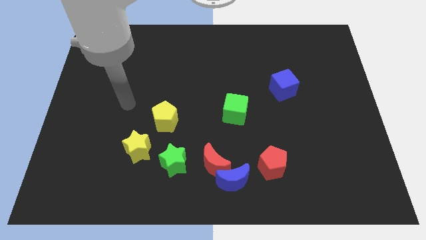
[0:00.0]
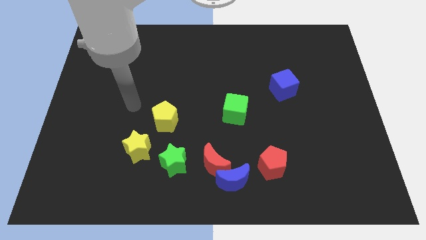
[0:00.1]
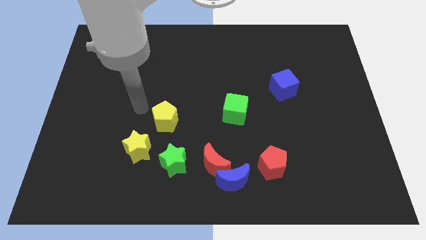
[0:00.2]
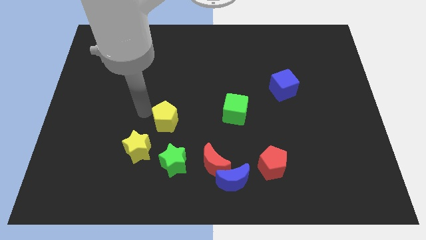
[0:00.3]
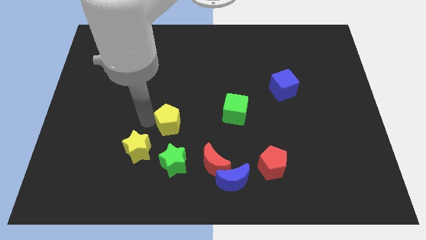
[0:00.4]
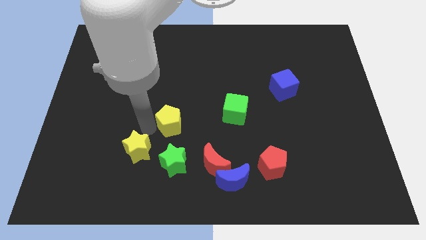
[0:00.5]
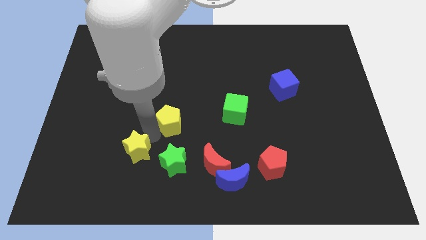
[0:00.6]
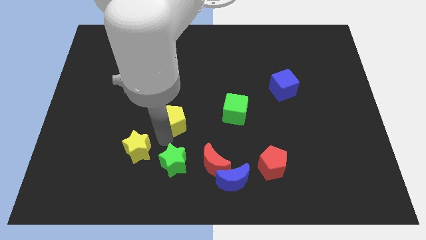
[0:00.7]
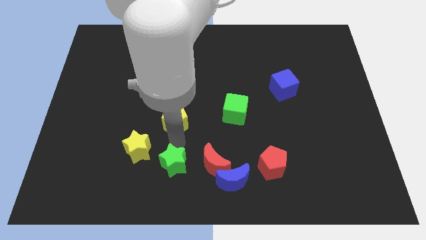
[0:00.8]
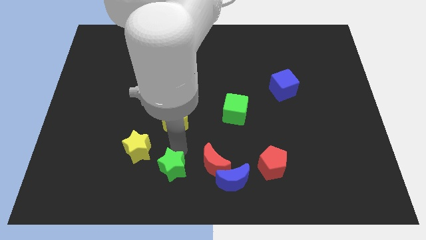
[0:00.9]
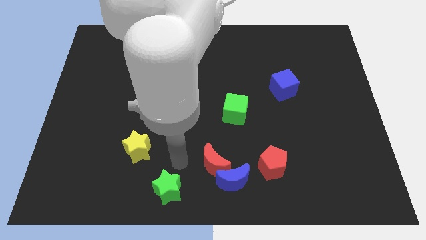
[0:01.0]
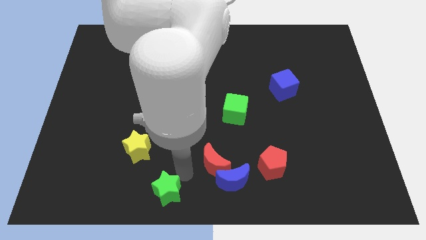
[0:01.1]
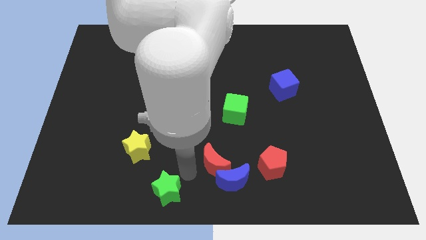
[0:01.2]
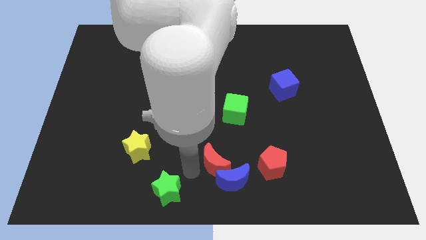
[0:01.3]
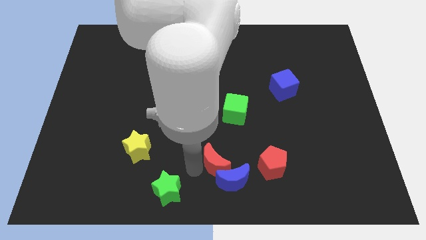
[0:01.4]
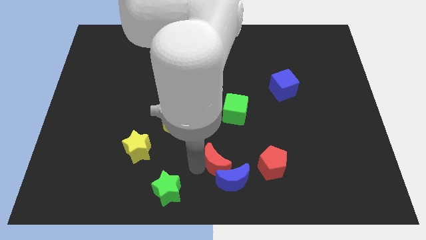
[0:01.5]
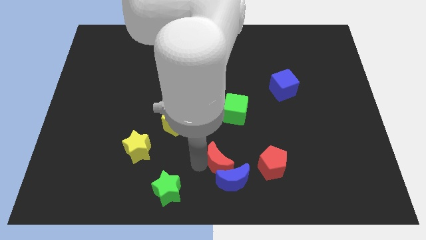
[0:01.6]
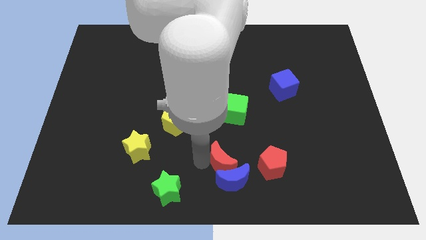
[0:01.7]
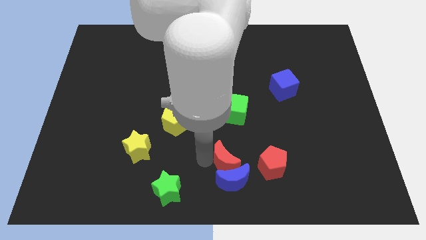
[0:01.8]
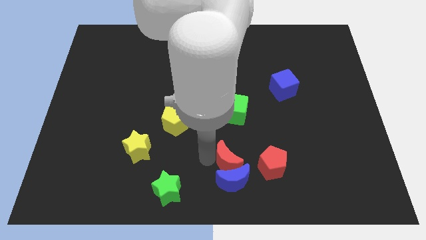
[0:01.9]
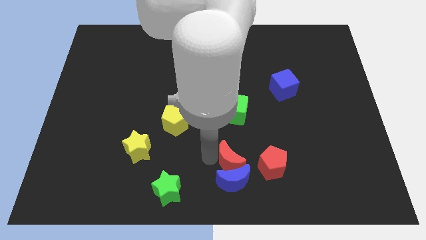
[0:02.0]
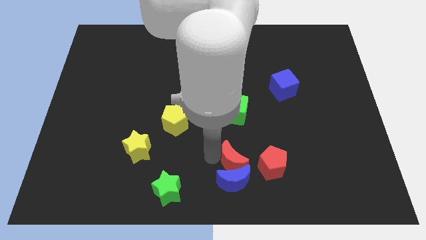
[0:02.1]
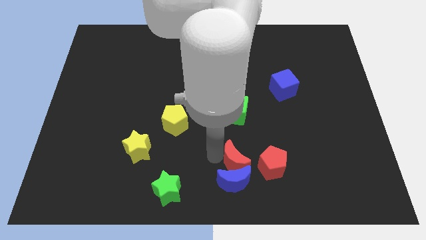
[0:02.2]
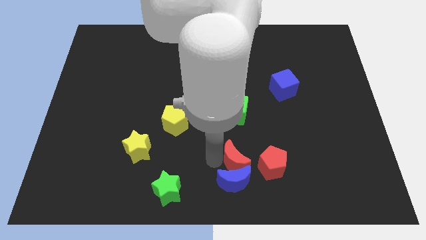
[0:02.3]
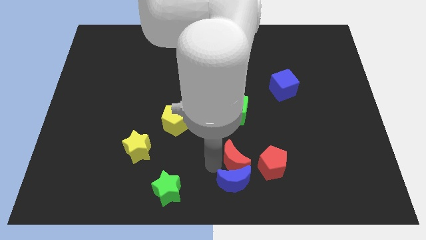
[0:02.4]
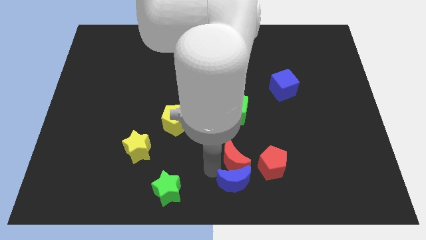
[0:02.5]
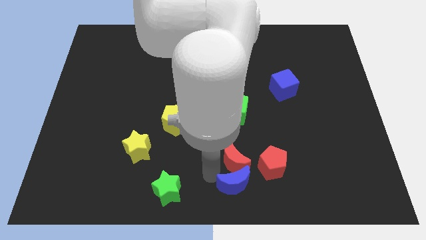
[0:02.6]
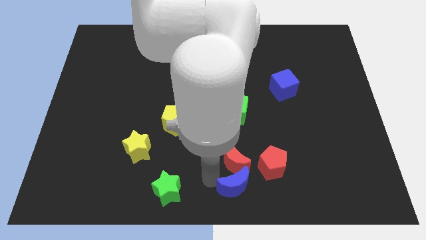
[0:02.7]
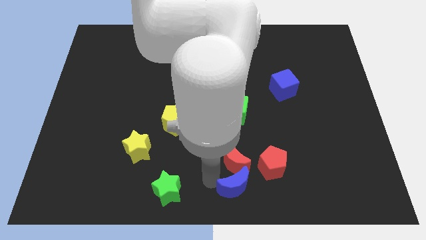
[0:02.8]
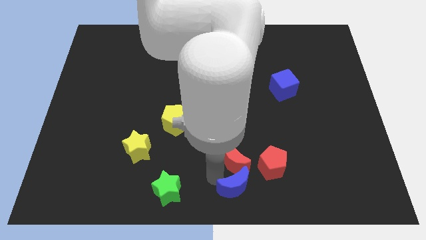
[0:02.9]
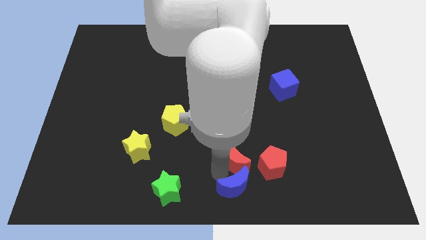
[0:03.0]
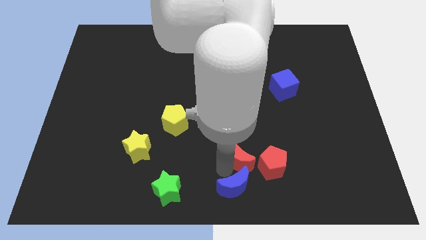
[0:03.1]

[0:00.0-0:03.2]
move the red moon away from the blue moon and green star

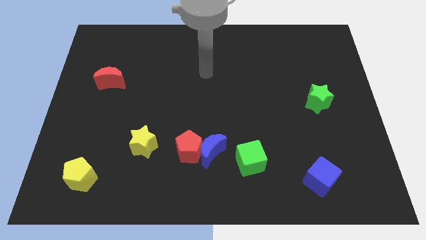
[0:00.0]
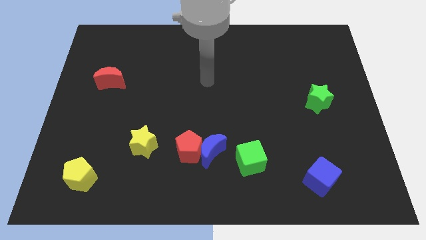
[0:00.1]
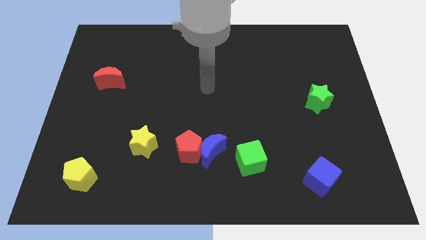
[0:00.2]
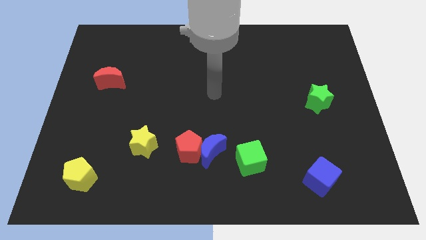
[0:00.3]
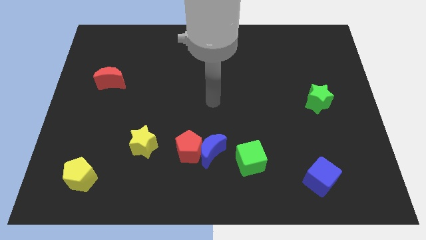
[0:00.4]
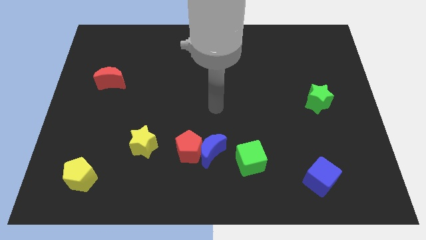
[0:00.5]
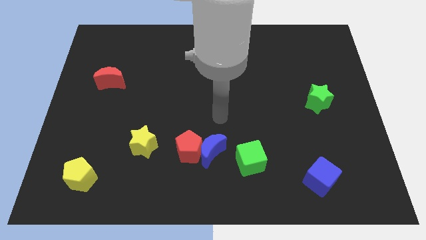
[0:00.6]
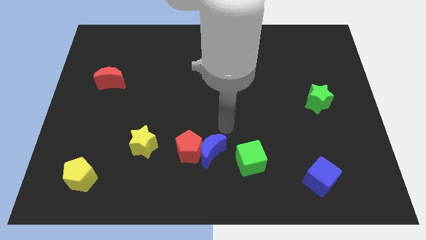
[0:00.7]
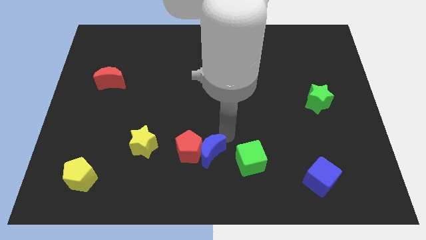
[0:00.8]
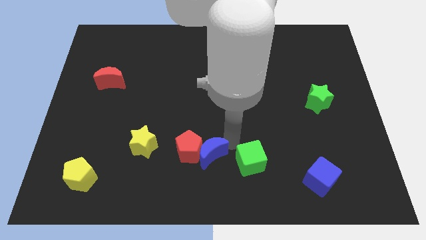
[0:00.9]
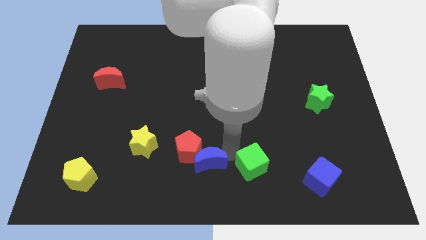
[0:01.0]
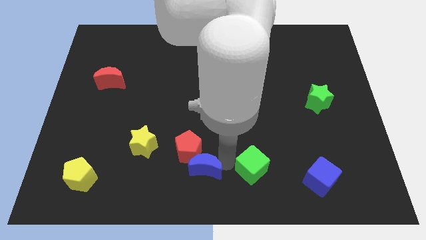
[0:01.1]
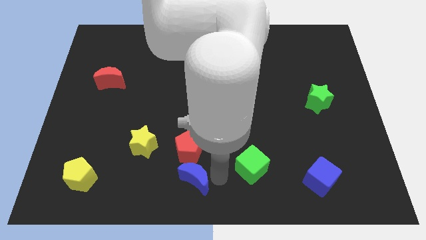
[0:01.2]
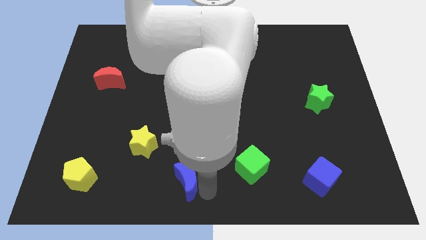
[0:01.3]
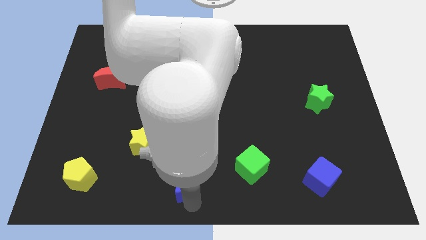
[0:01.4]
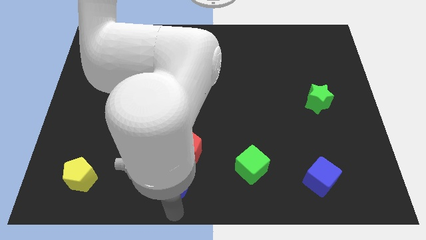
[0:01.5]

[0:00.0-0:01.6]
pull the blue moon apart from the red pentagon and green cube

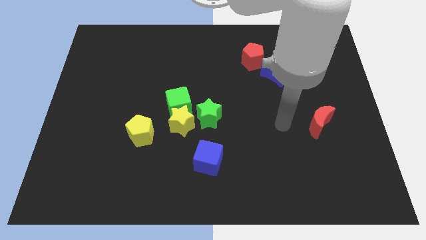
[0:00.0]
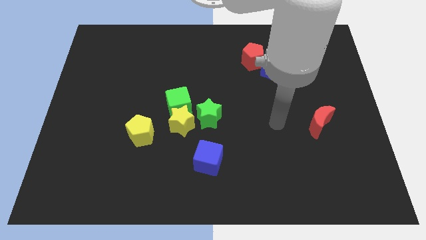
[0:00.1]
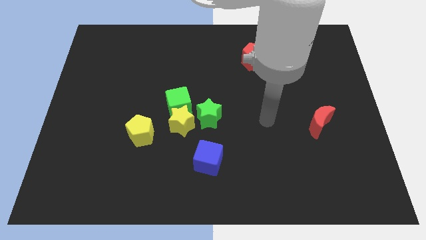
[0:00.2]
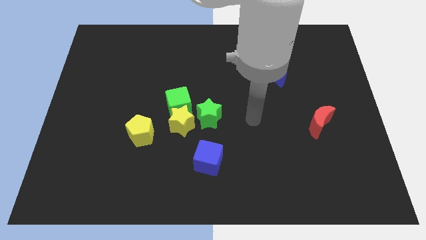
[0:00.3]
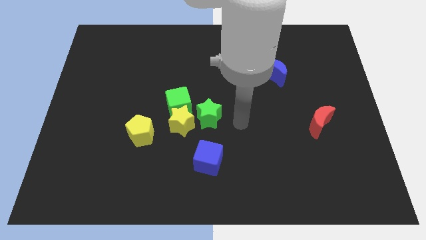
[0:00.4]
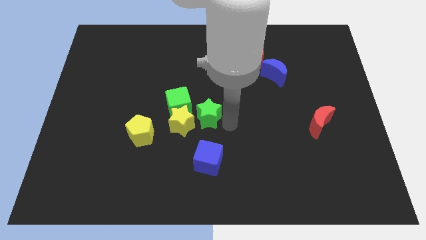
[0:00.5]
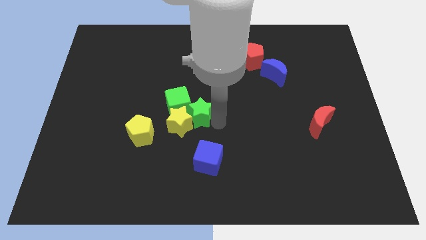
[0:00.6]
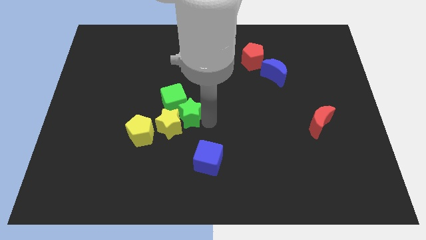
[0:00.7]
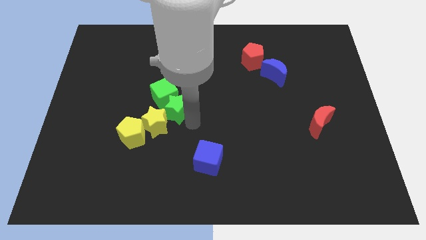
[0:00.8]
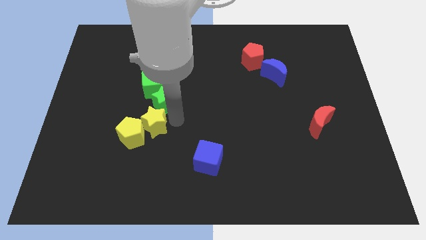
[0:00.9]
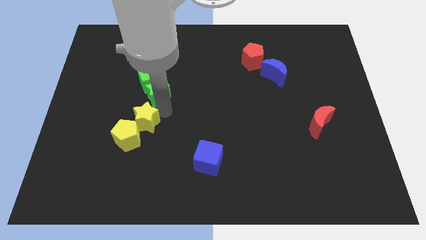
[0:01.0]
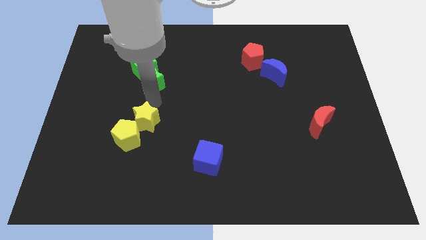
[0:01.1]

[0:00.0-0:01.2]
pull the green cube apart from the yellow star and green star

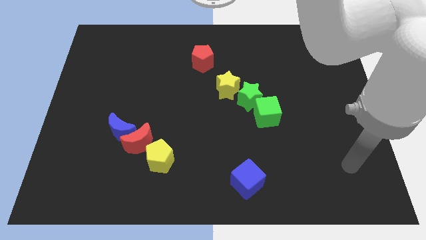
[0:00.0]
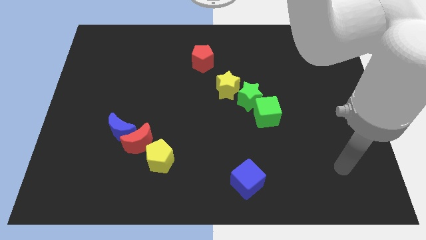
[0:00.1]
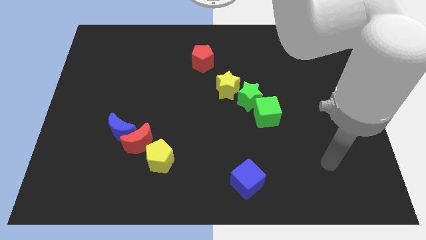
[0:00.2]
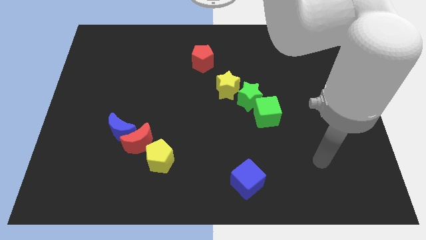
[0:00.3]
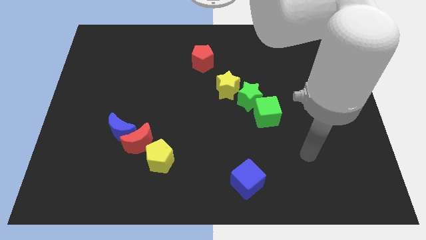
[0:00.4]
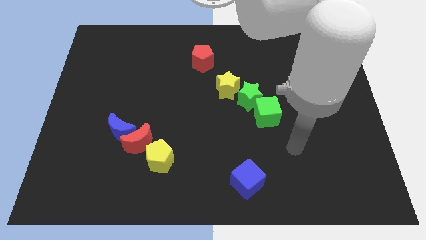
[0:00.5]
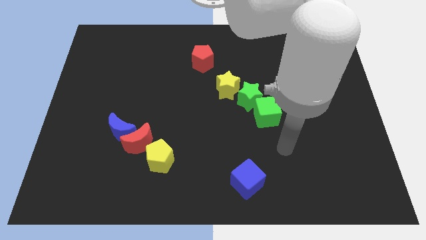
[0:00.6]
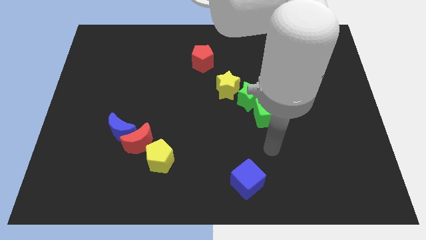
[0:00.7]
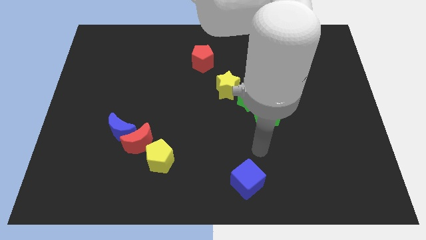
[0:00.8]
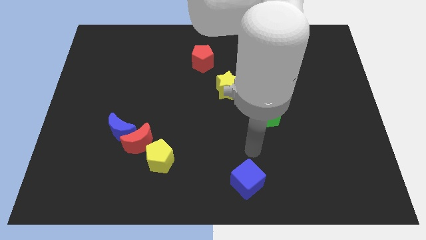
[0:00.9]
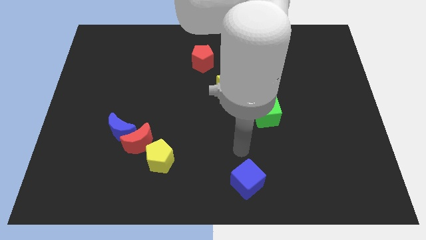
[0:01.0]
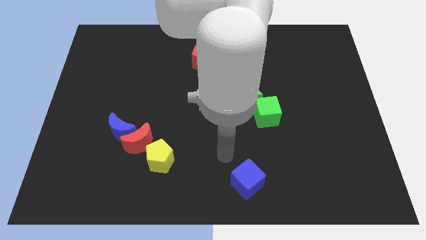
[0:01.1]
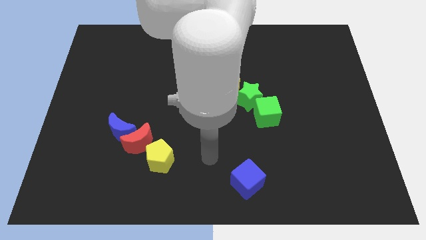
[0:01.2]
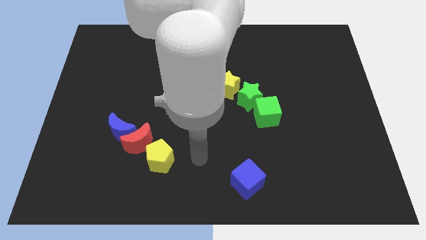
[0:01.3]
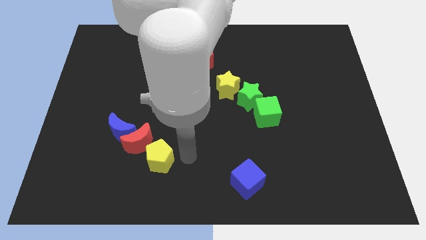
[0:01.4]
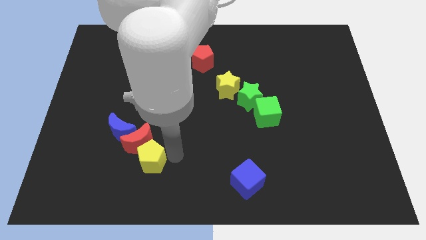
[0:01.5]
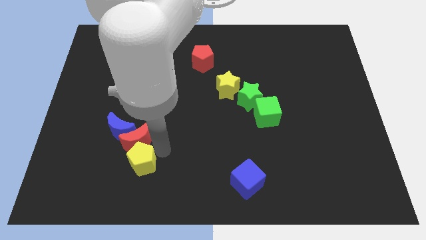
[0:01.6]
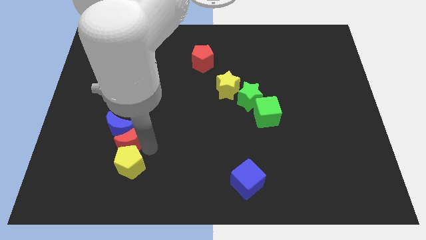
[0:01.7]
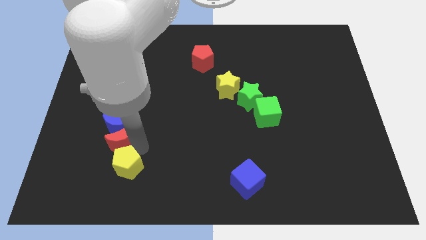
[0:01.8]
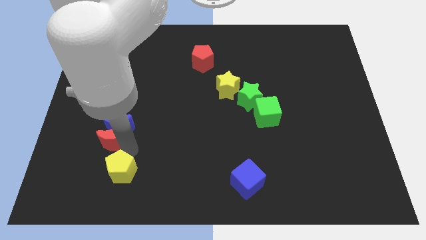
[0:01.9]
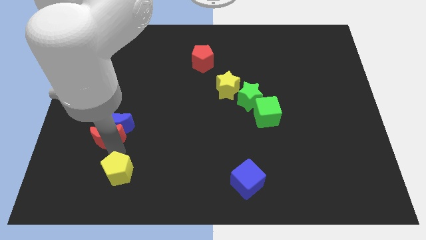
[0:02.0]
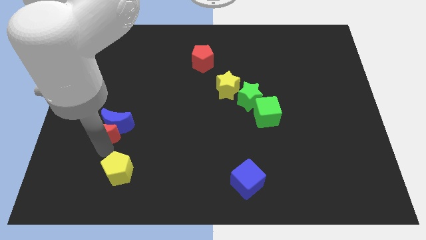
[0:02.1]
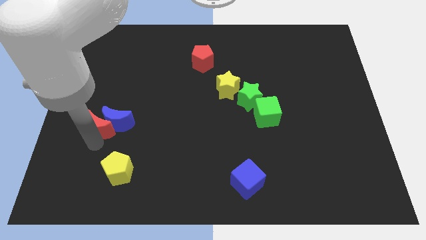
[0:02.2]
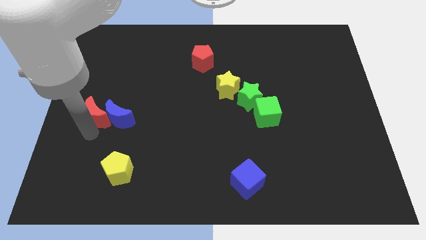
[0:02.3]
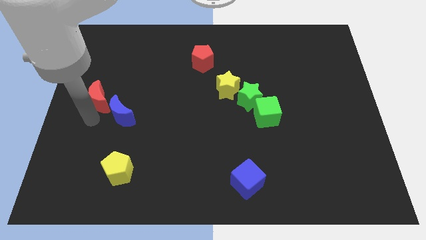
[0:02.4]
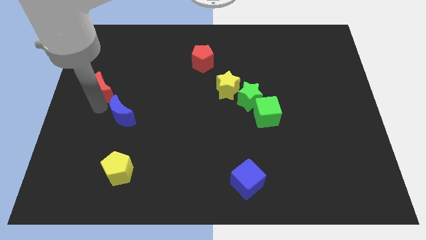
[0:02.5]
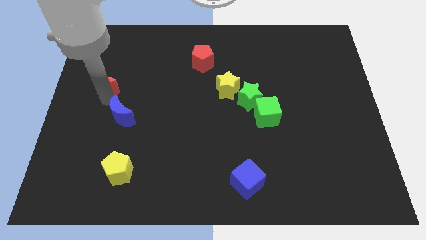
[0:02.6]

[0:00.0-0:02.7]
separate the blue moon from the red moon

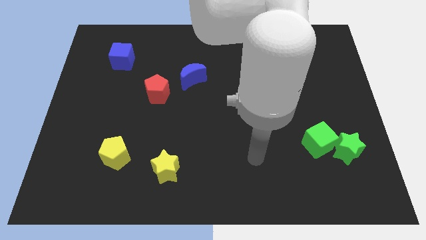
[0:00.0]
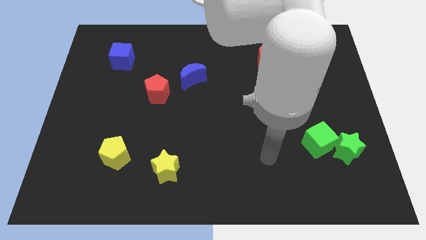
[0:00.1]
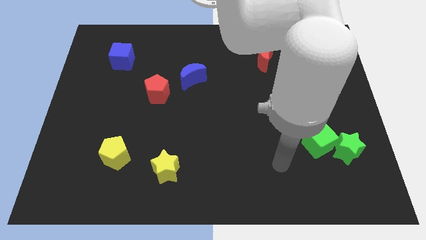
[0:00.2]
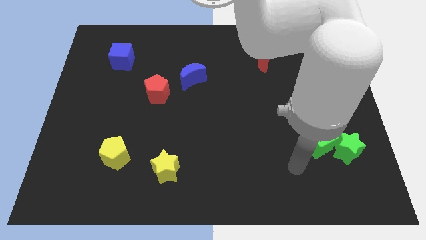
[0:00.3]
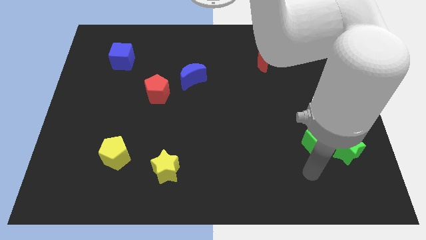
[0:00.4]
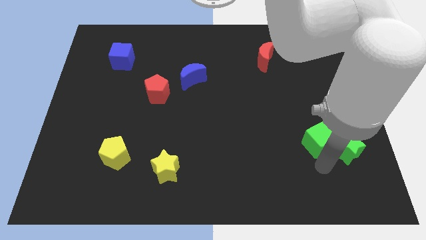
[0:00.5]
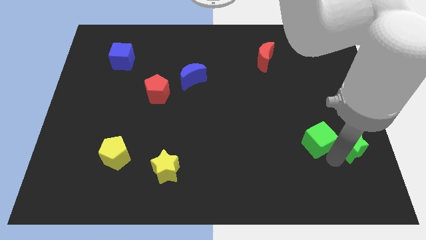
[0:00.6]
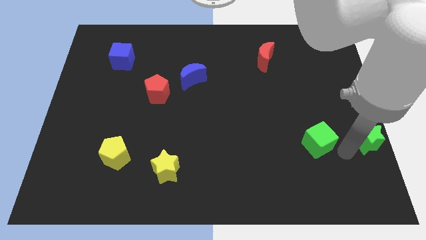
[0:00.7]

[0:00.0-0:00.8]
move the green cube away from the green star
